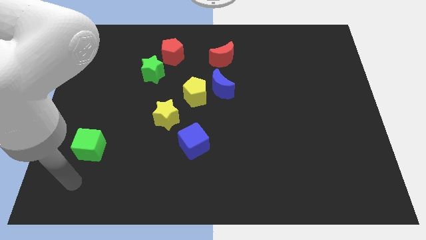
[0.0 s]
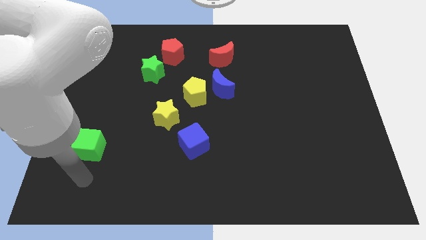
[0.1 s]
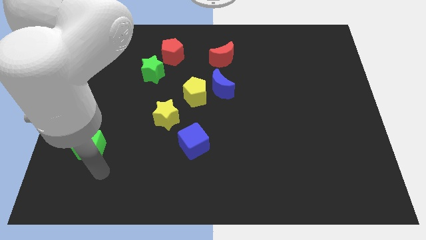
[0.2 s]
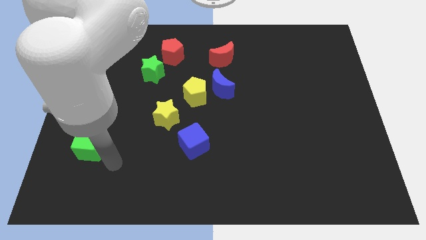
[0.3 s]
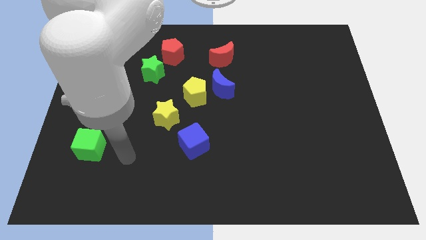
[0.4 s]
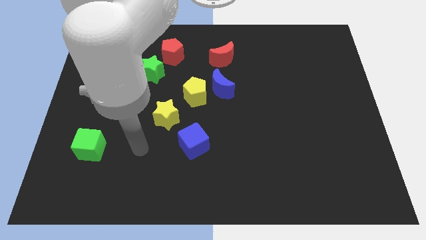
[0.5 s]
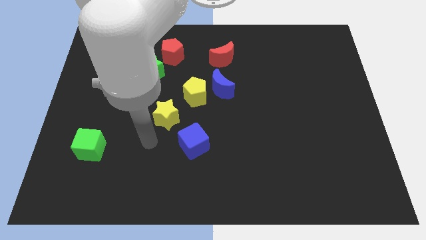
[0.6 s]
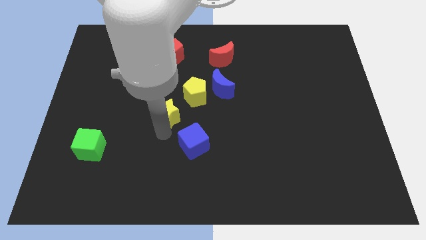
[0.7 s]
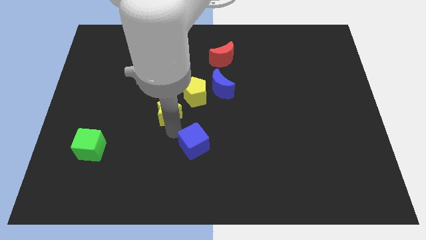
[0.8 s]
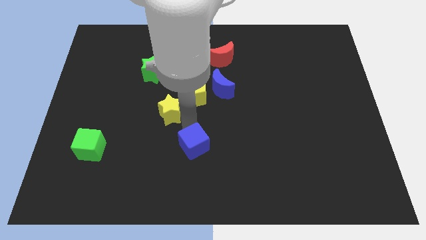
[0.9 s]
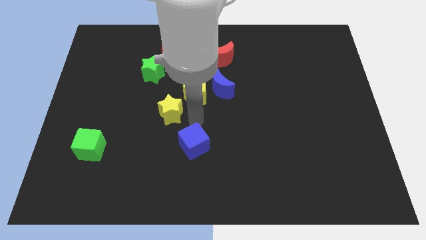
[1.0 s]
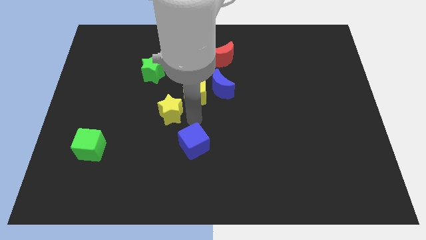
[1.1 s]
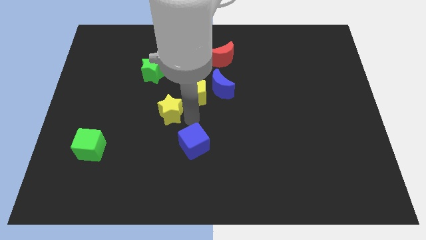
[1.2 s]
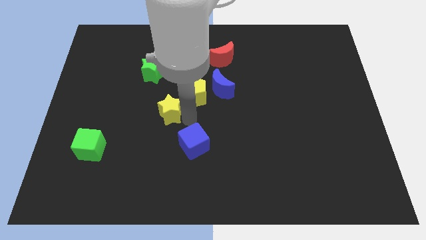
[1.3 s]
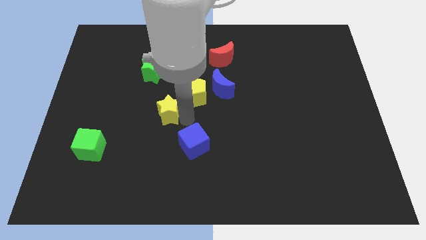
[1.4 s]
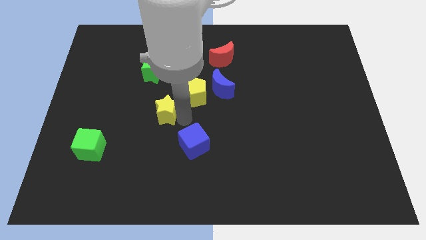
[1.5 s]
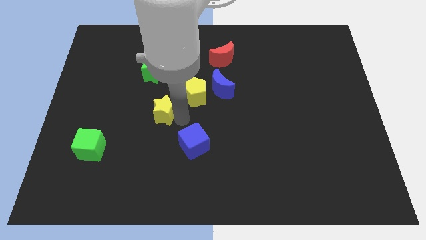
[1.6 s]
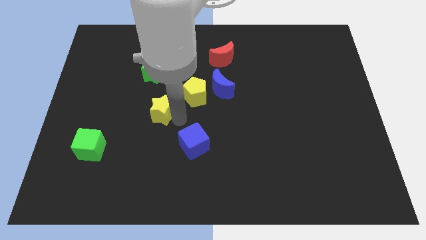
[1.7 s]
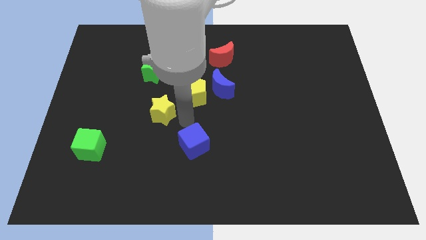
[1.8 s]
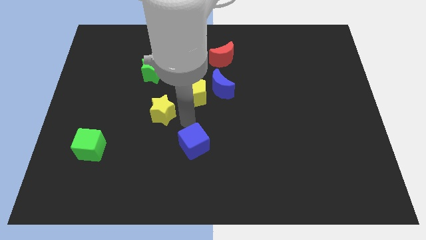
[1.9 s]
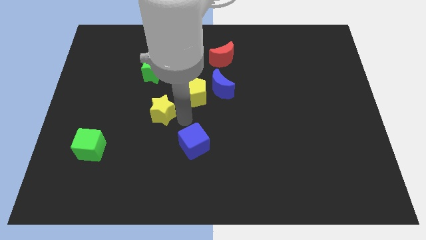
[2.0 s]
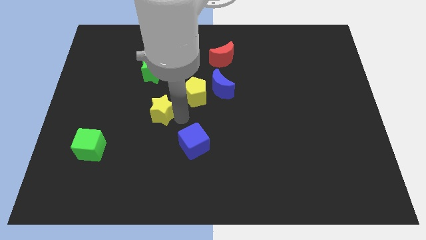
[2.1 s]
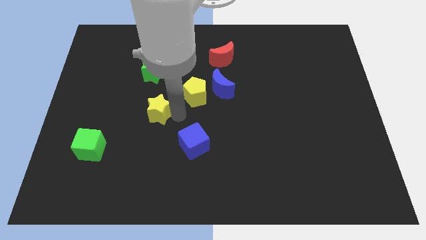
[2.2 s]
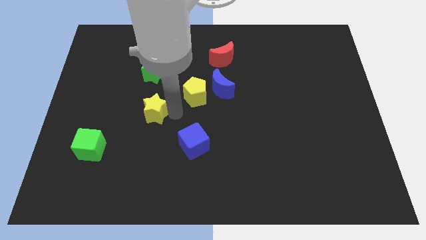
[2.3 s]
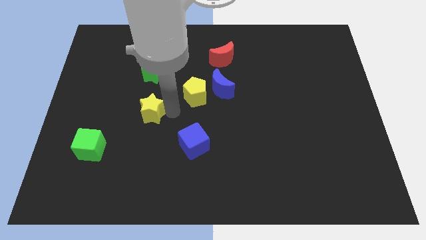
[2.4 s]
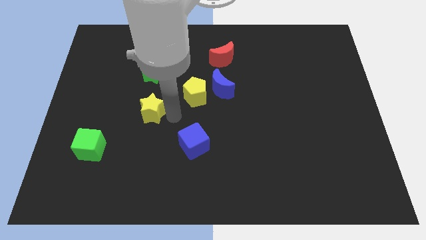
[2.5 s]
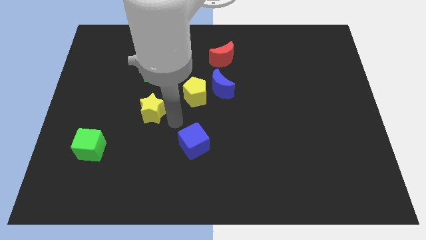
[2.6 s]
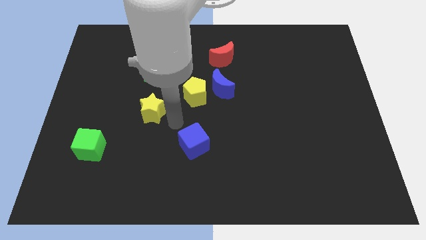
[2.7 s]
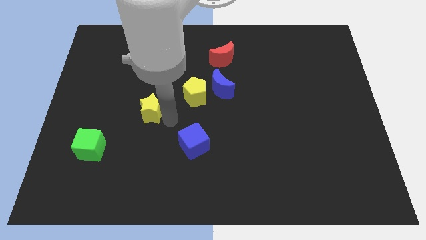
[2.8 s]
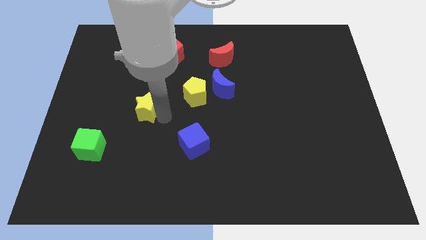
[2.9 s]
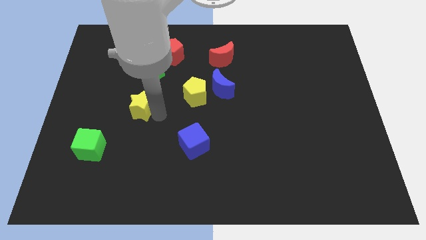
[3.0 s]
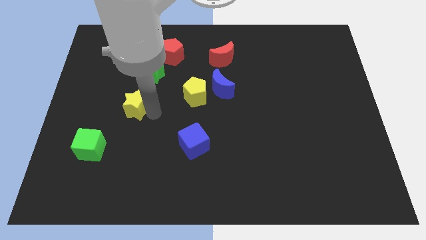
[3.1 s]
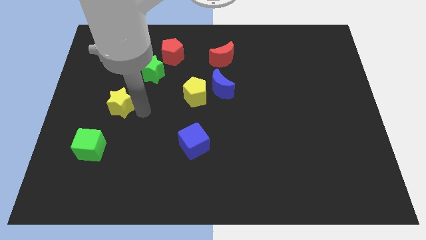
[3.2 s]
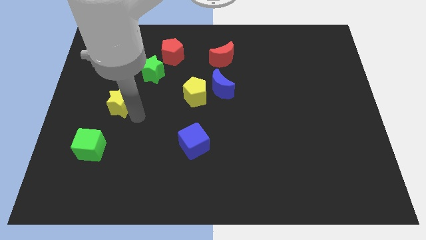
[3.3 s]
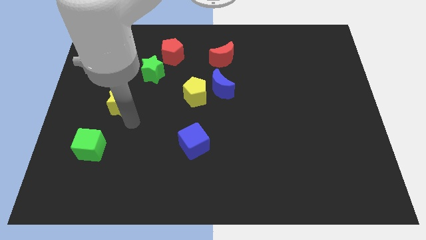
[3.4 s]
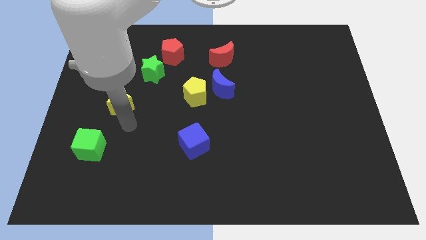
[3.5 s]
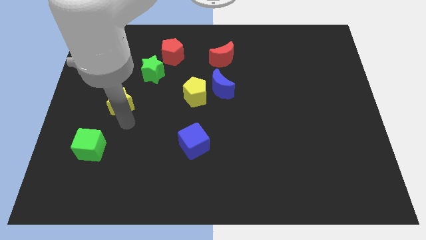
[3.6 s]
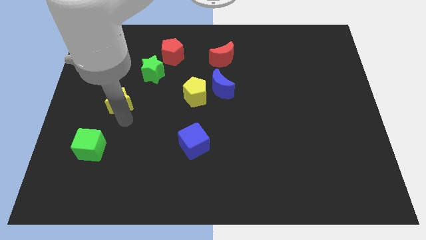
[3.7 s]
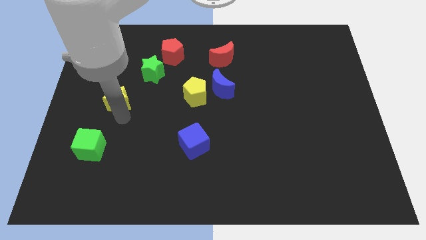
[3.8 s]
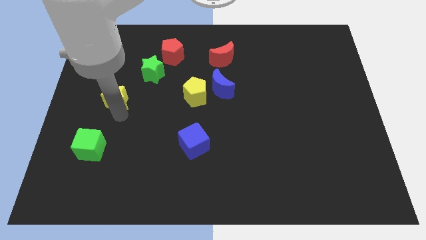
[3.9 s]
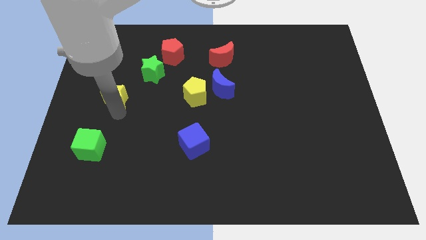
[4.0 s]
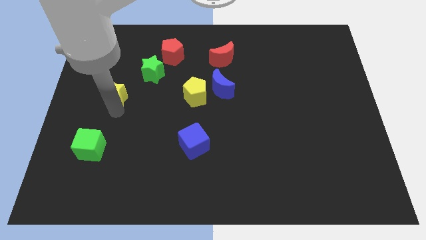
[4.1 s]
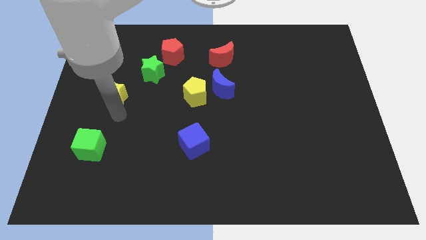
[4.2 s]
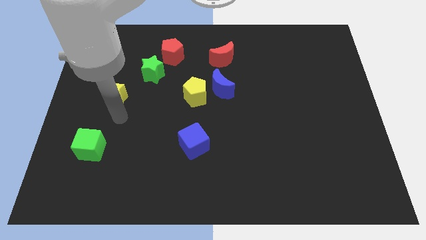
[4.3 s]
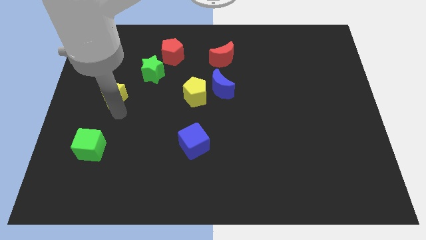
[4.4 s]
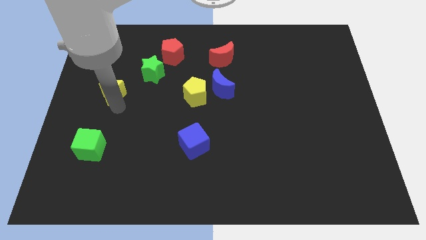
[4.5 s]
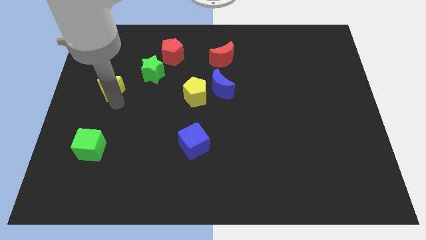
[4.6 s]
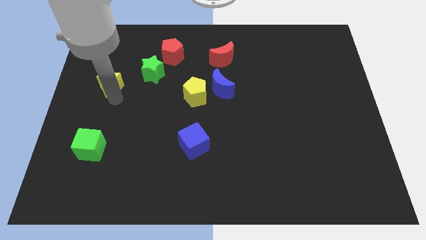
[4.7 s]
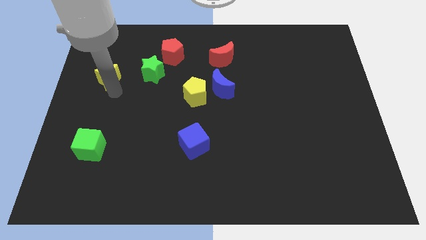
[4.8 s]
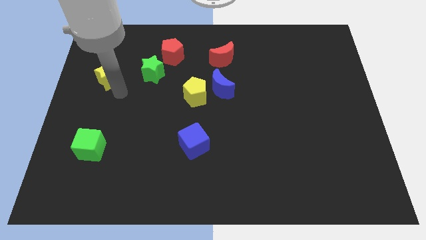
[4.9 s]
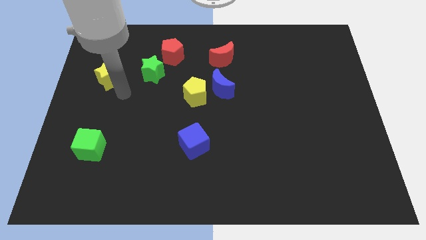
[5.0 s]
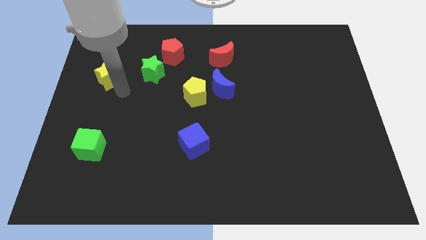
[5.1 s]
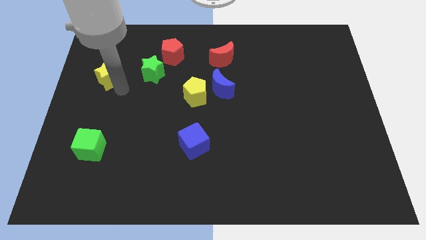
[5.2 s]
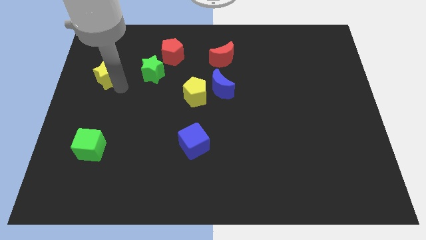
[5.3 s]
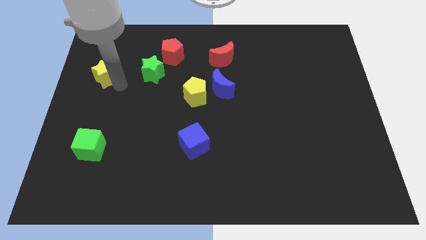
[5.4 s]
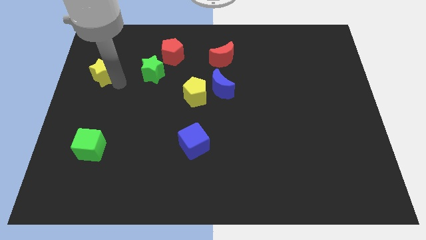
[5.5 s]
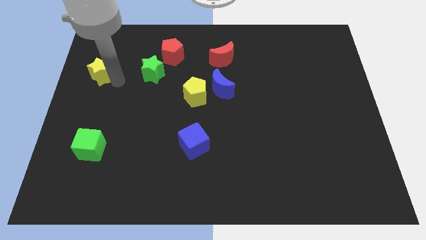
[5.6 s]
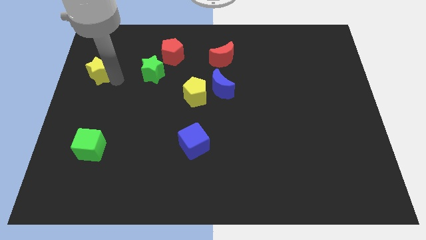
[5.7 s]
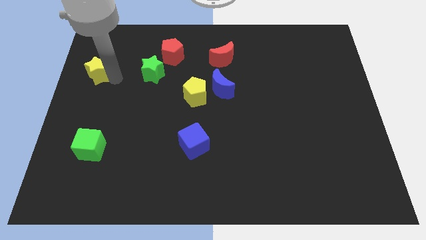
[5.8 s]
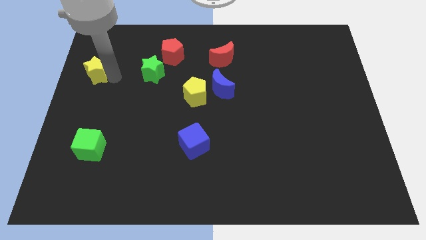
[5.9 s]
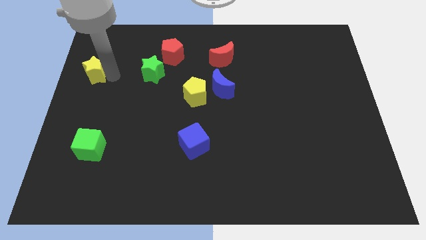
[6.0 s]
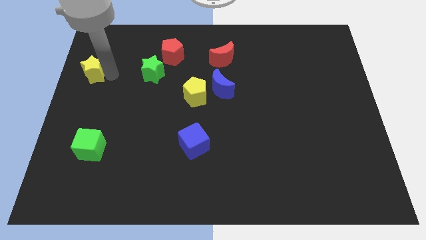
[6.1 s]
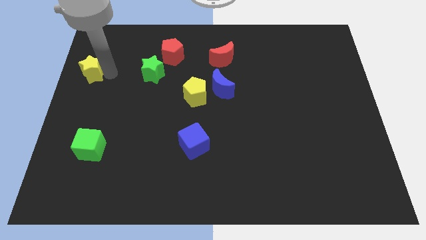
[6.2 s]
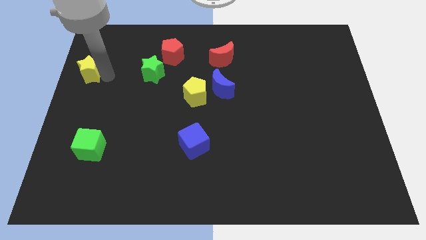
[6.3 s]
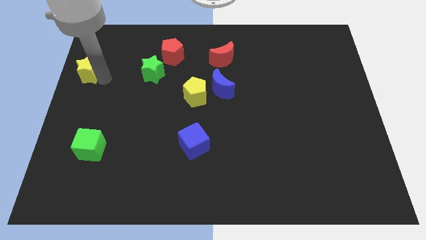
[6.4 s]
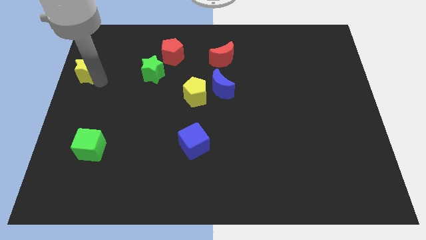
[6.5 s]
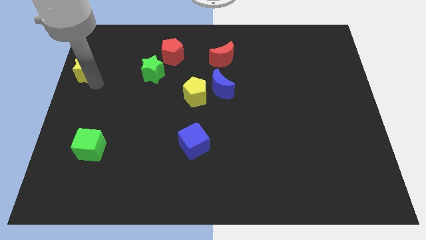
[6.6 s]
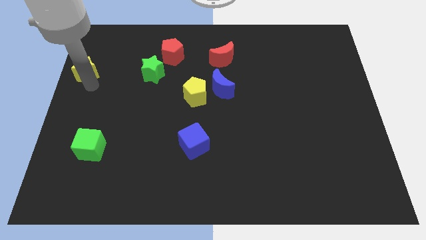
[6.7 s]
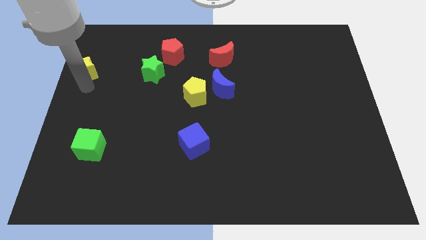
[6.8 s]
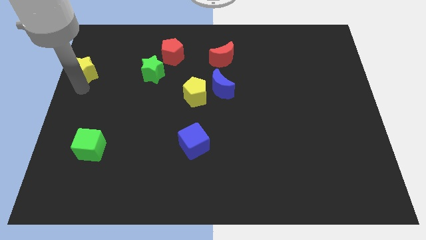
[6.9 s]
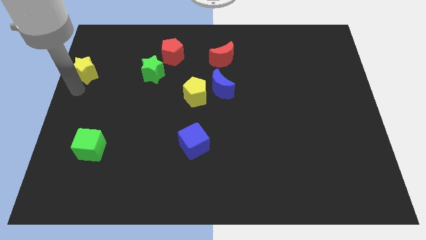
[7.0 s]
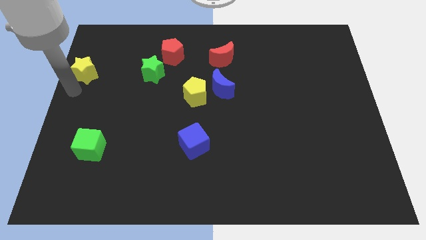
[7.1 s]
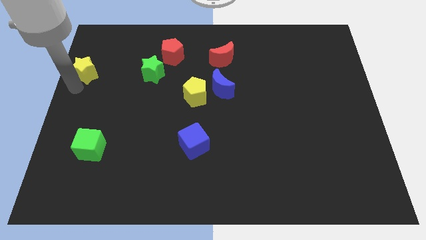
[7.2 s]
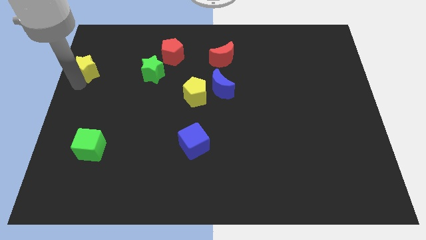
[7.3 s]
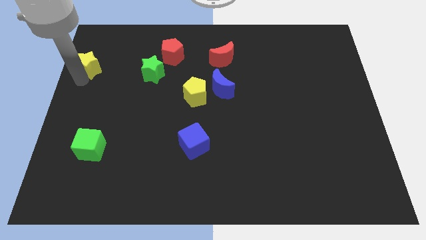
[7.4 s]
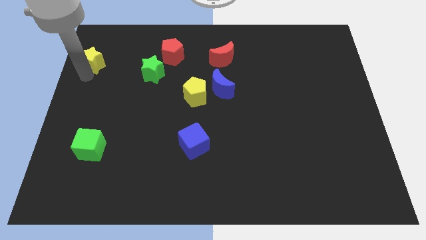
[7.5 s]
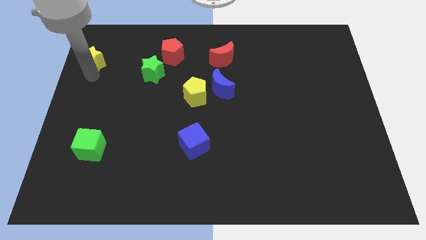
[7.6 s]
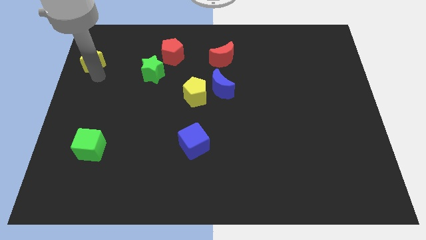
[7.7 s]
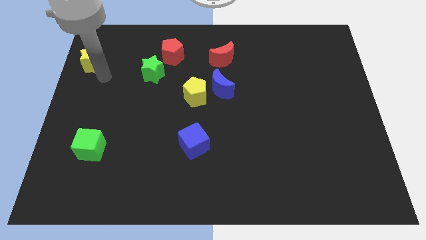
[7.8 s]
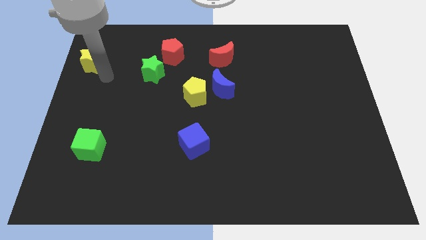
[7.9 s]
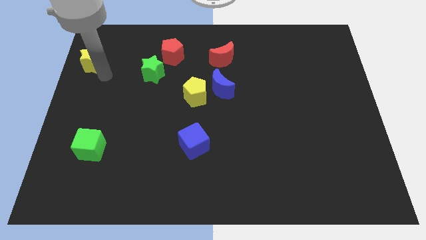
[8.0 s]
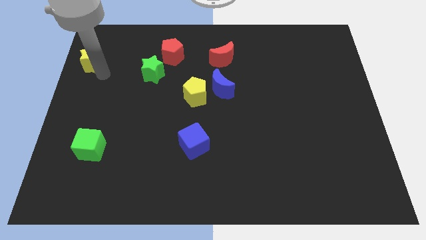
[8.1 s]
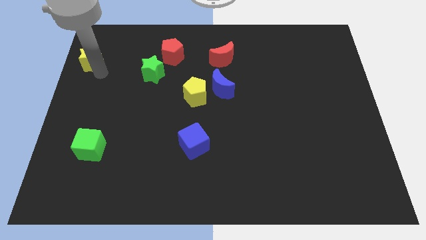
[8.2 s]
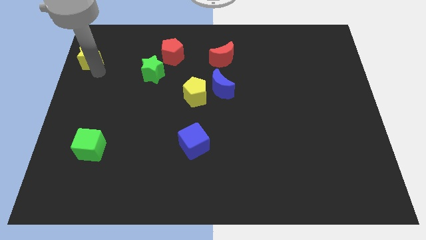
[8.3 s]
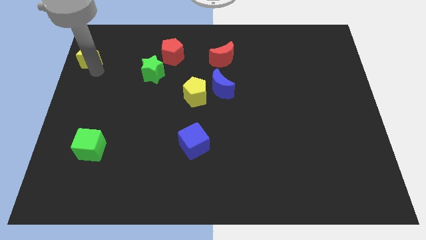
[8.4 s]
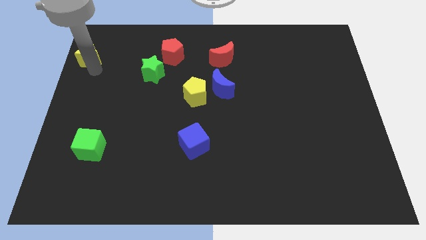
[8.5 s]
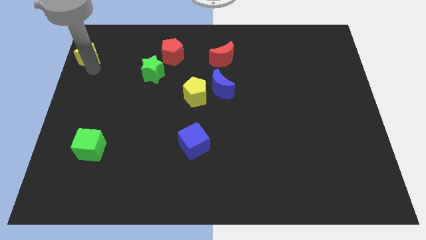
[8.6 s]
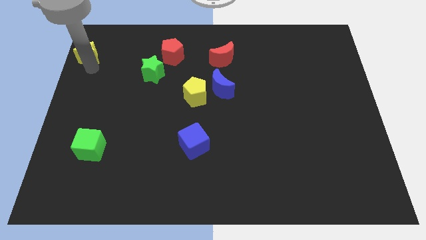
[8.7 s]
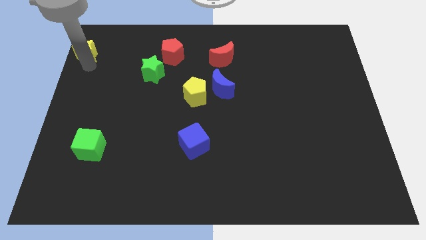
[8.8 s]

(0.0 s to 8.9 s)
put the yellow star to the top left
